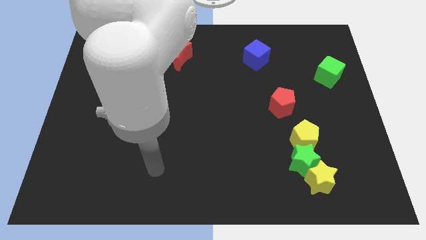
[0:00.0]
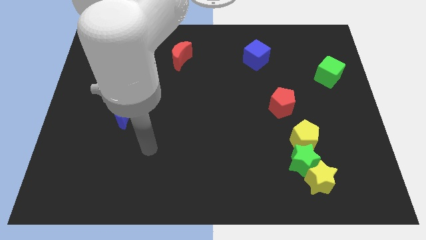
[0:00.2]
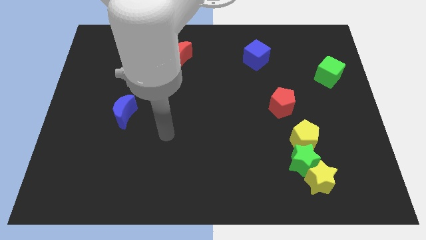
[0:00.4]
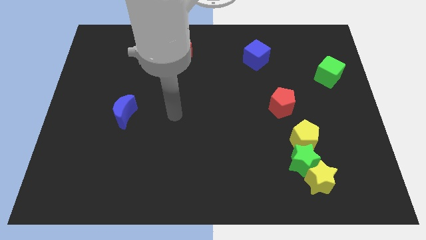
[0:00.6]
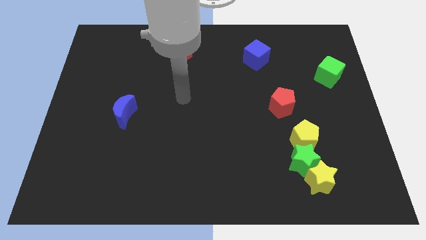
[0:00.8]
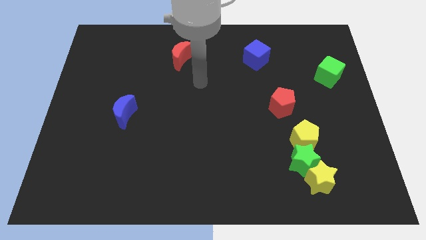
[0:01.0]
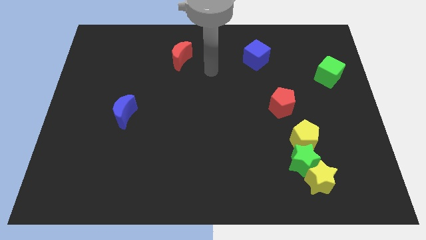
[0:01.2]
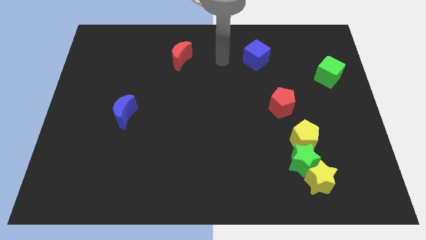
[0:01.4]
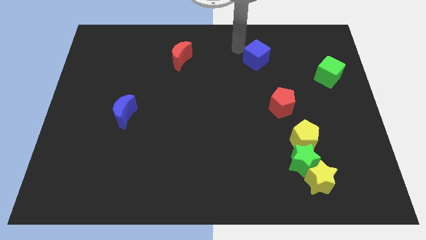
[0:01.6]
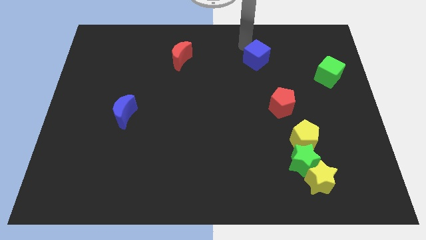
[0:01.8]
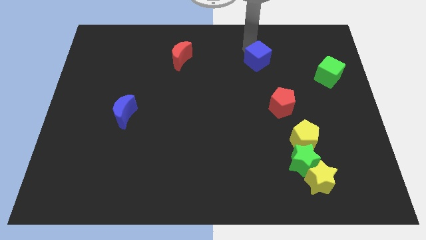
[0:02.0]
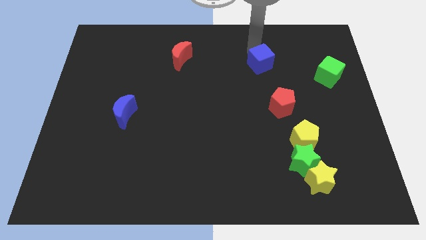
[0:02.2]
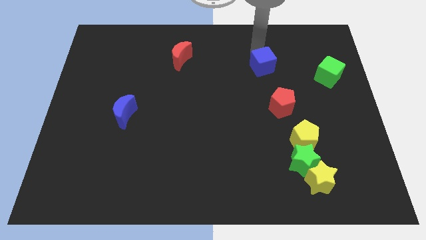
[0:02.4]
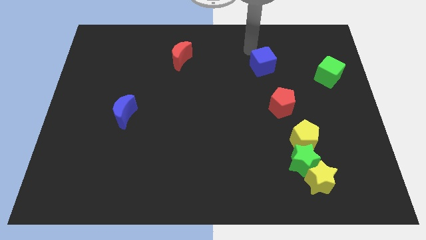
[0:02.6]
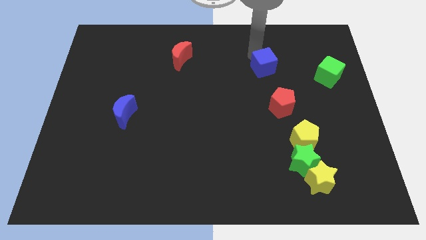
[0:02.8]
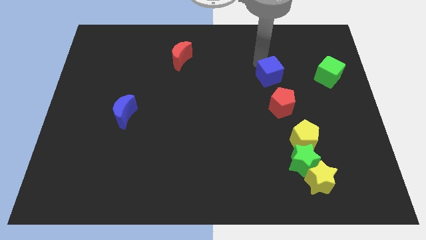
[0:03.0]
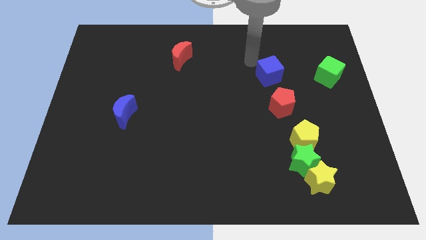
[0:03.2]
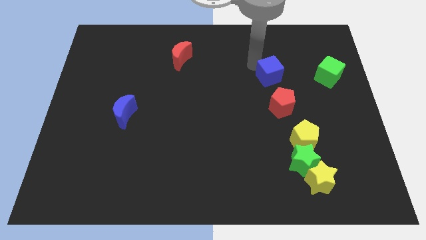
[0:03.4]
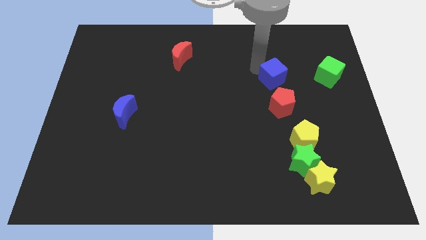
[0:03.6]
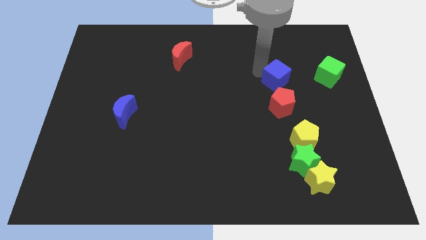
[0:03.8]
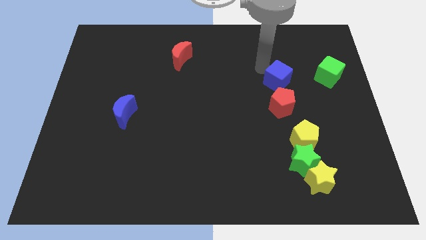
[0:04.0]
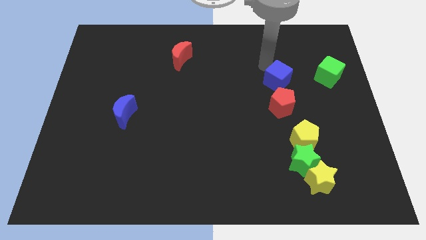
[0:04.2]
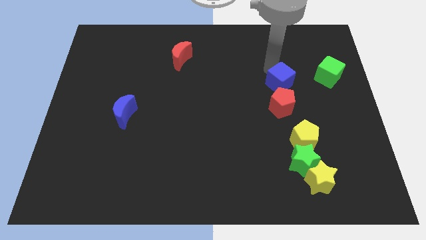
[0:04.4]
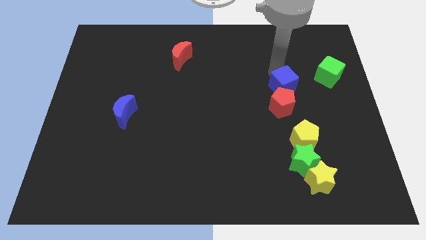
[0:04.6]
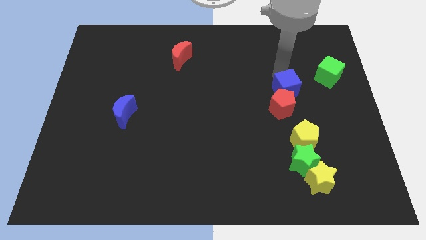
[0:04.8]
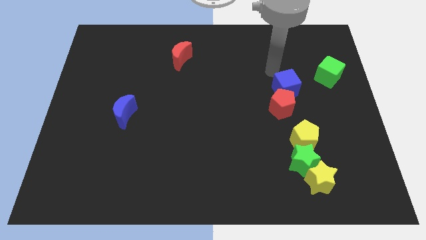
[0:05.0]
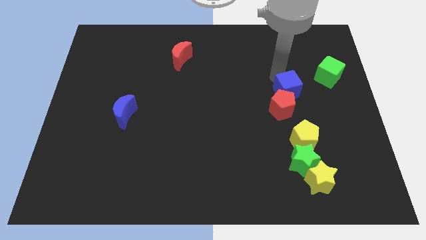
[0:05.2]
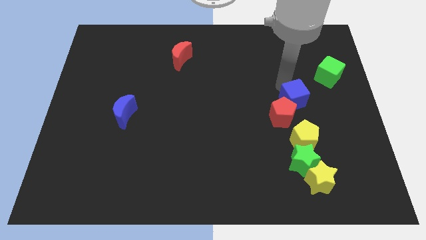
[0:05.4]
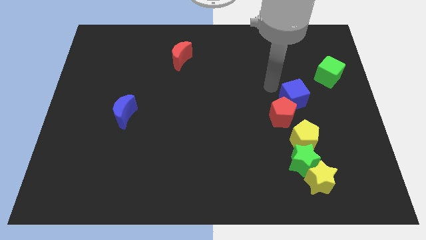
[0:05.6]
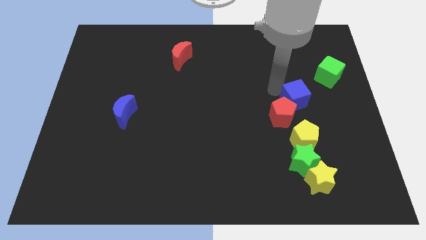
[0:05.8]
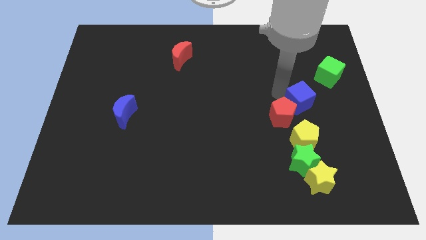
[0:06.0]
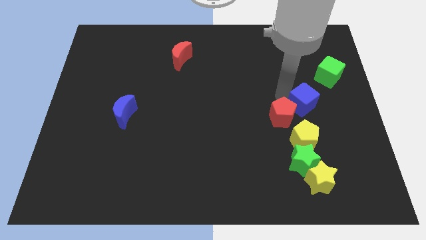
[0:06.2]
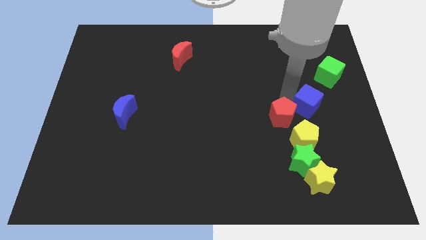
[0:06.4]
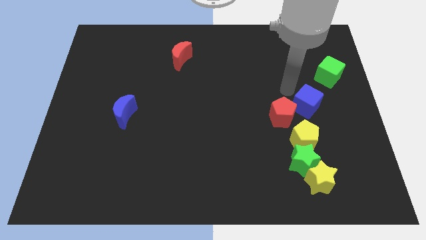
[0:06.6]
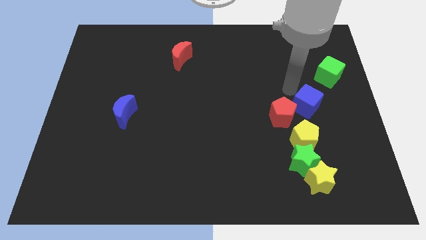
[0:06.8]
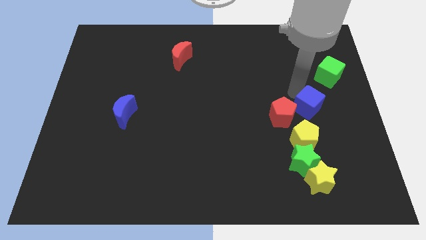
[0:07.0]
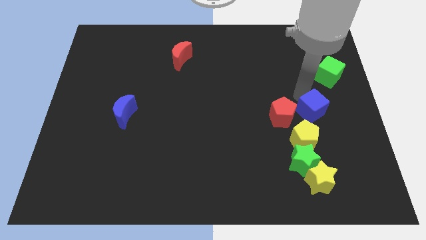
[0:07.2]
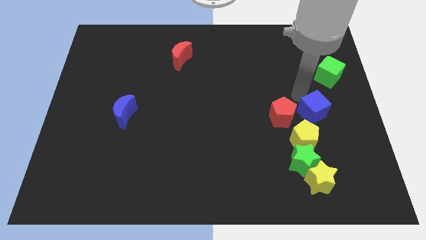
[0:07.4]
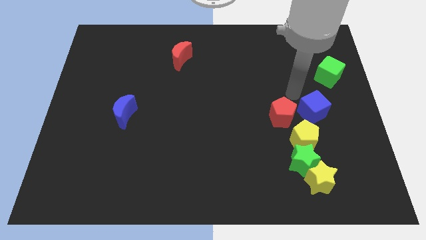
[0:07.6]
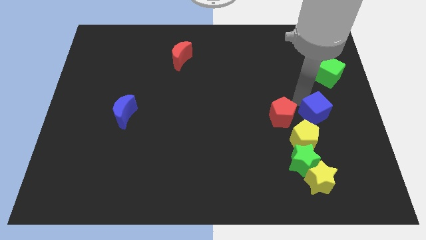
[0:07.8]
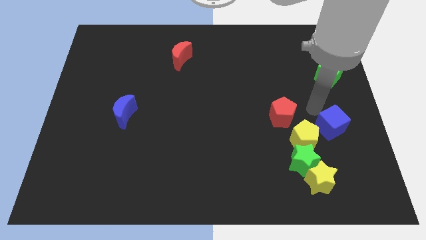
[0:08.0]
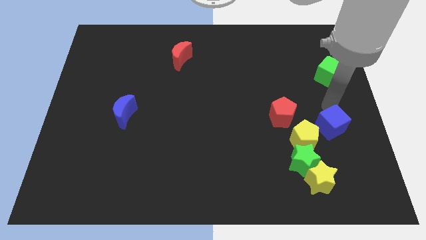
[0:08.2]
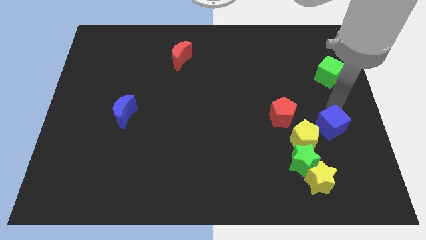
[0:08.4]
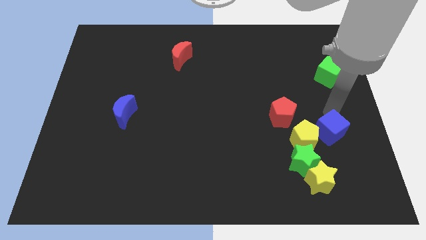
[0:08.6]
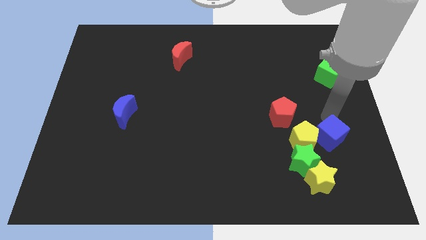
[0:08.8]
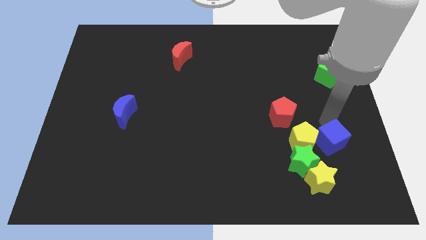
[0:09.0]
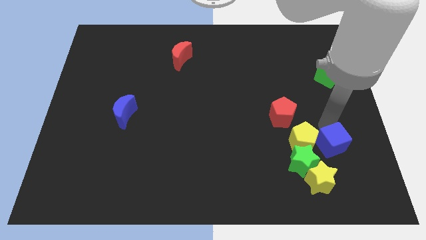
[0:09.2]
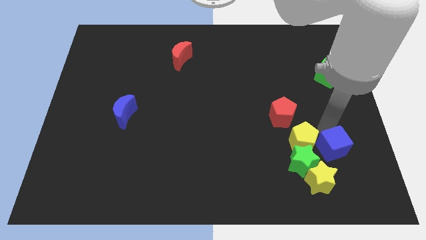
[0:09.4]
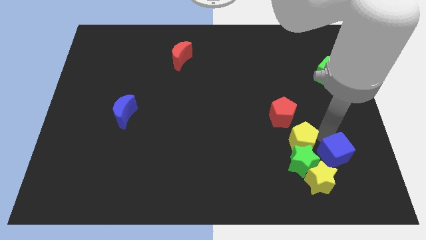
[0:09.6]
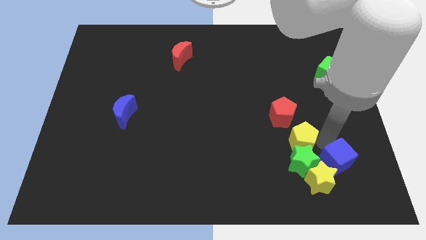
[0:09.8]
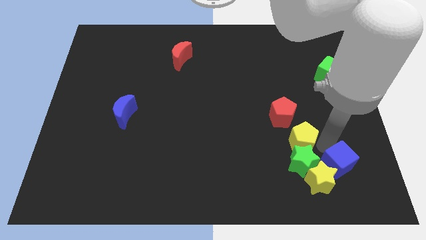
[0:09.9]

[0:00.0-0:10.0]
put the blue cube towards the yellow star

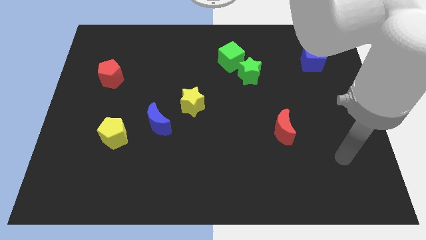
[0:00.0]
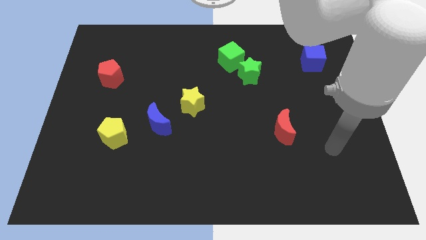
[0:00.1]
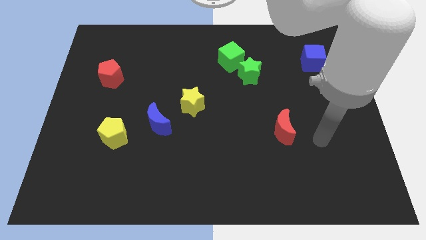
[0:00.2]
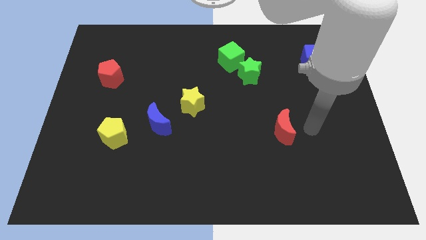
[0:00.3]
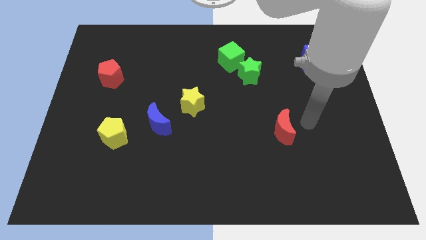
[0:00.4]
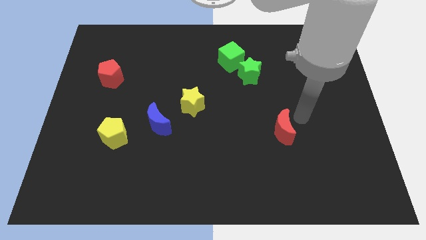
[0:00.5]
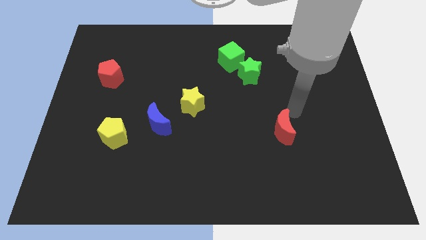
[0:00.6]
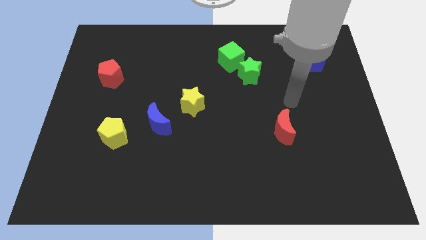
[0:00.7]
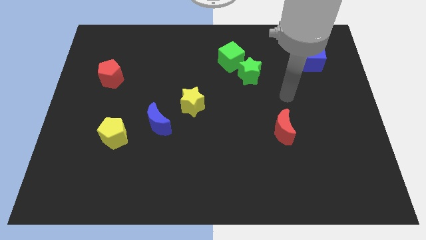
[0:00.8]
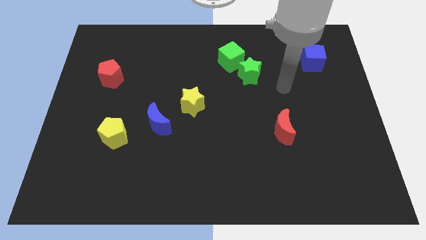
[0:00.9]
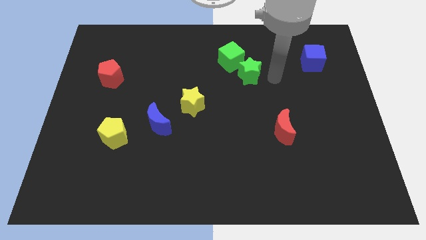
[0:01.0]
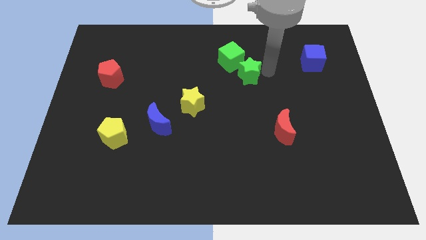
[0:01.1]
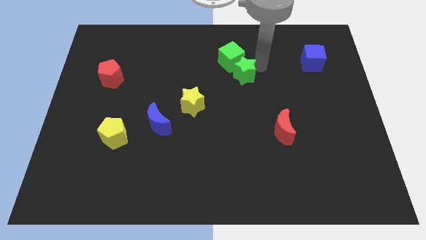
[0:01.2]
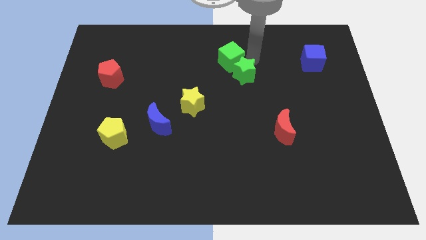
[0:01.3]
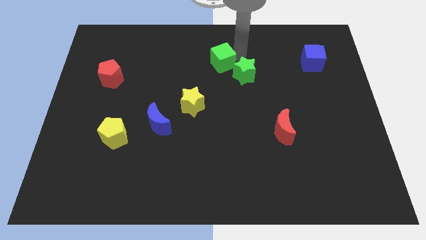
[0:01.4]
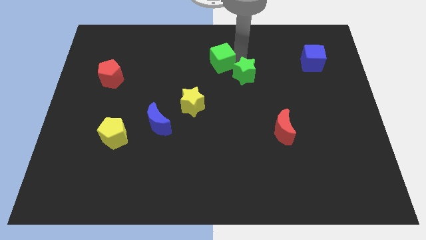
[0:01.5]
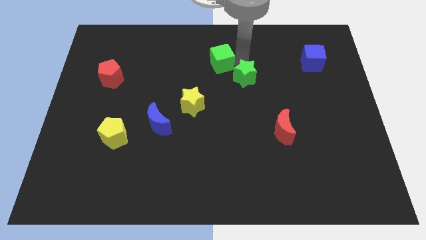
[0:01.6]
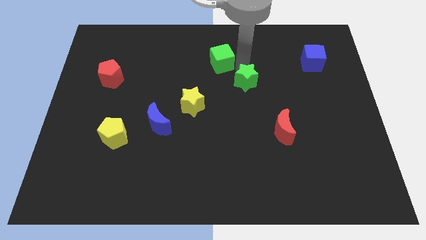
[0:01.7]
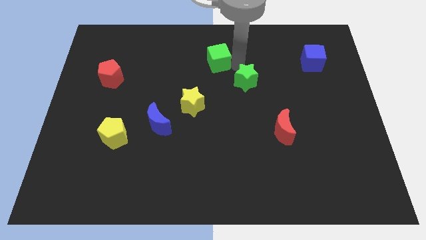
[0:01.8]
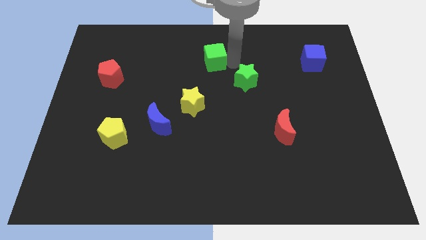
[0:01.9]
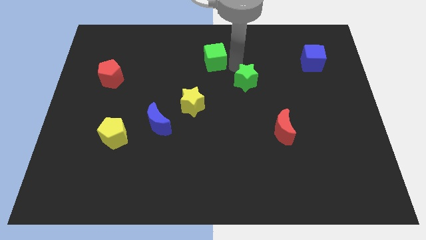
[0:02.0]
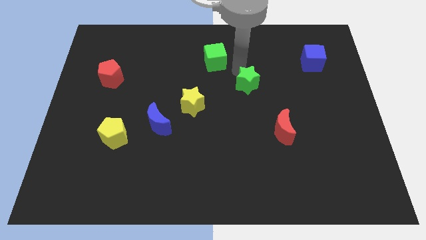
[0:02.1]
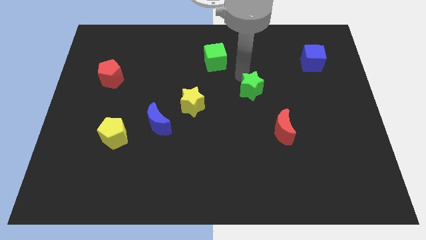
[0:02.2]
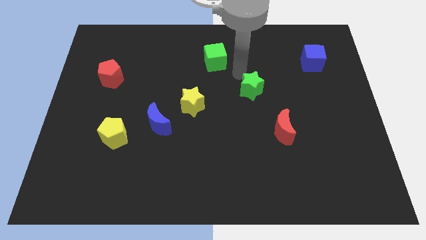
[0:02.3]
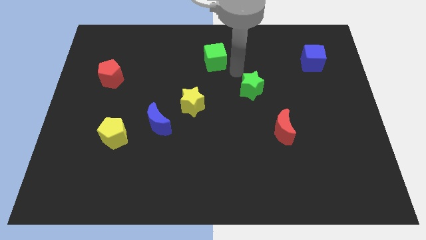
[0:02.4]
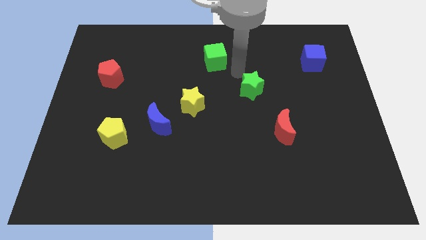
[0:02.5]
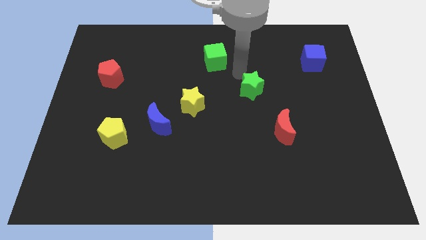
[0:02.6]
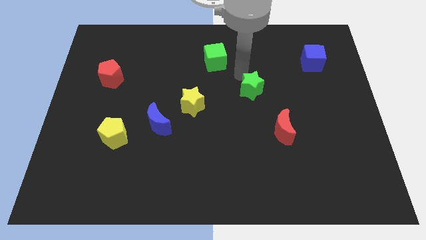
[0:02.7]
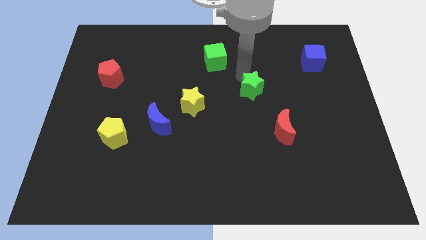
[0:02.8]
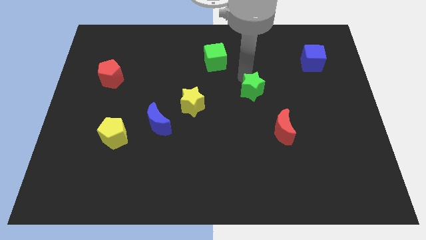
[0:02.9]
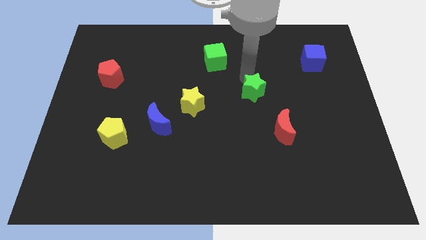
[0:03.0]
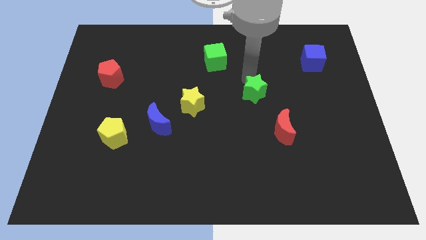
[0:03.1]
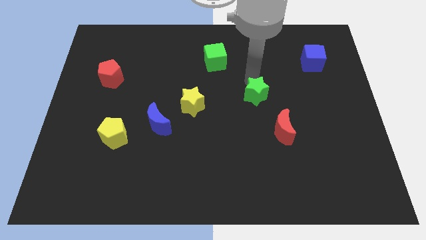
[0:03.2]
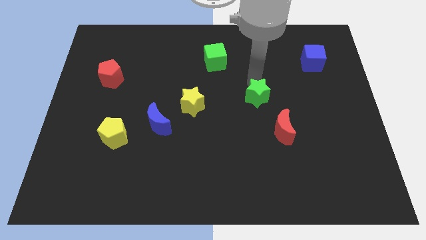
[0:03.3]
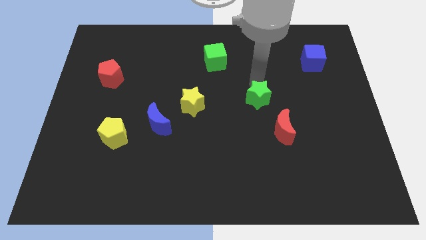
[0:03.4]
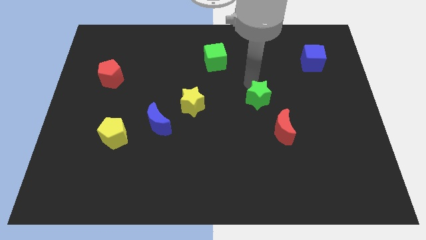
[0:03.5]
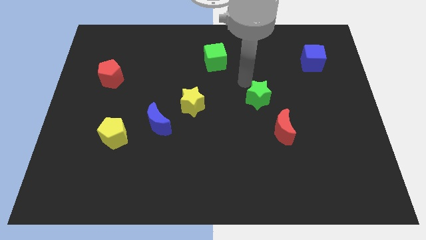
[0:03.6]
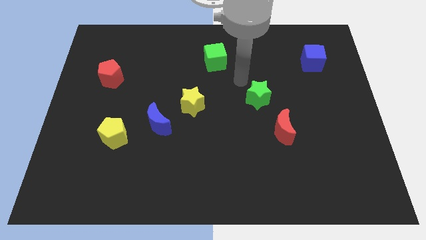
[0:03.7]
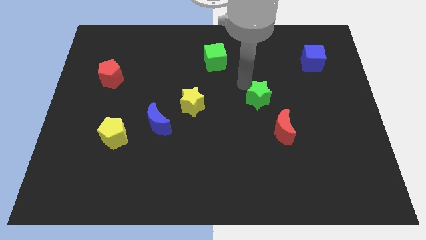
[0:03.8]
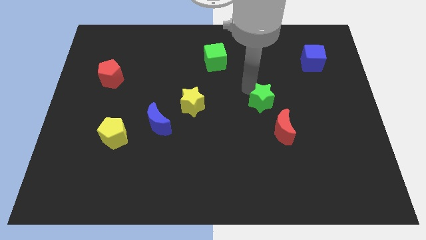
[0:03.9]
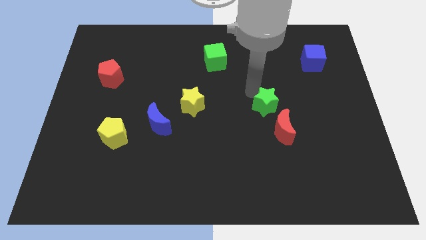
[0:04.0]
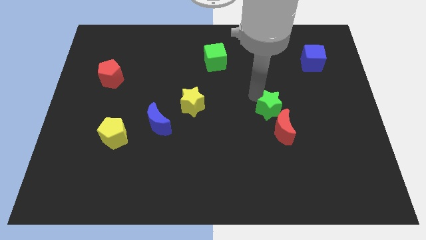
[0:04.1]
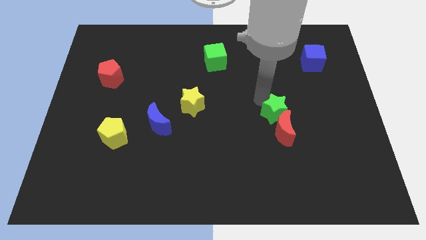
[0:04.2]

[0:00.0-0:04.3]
push the green star to the red moon
